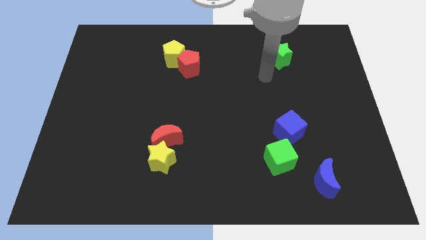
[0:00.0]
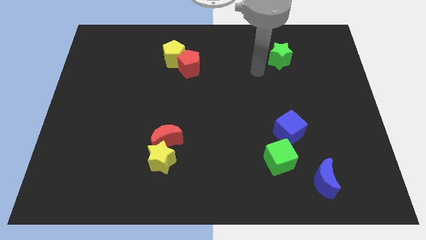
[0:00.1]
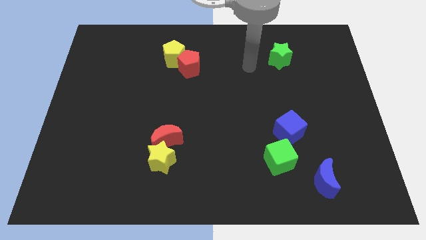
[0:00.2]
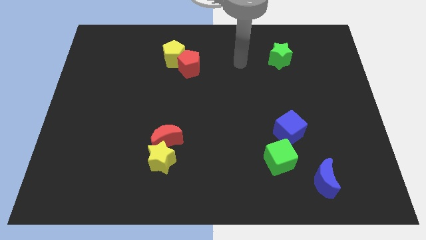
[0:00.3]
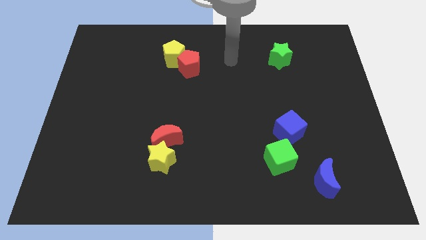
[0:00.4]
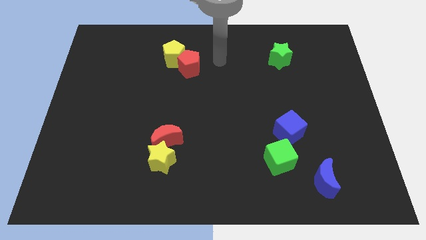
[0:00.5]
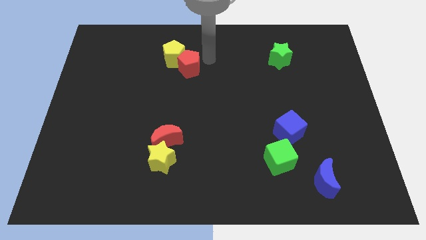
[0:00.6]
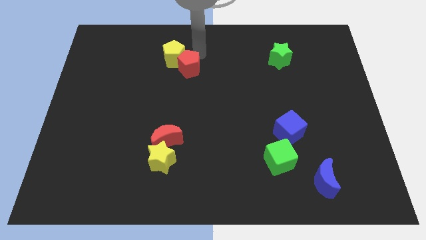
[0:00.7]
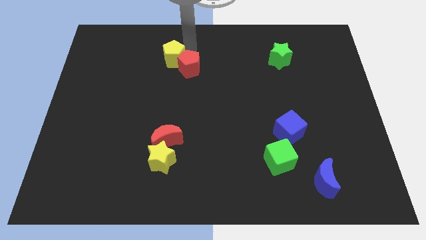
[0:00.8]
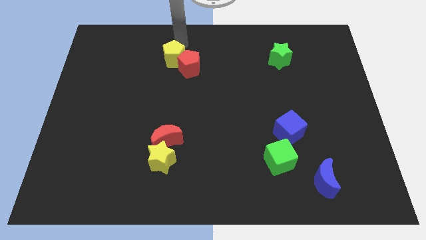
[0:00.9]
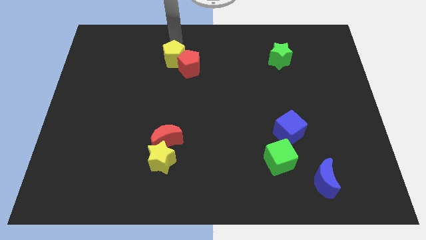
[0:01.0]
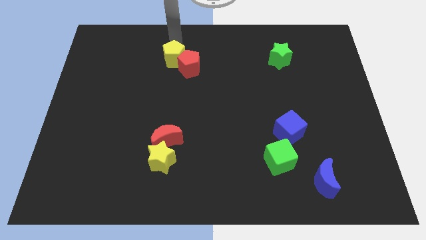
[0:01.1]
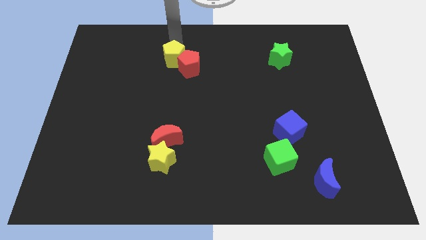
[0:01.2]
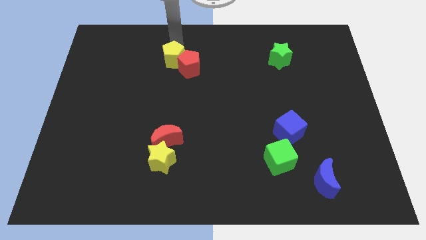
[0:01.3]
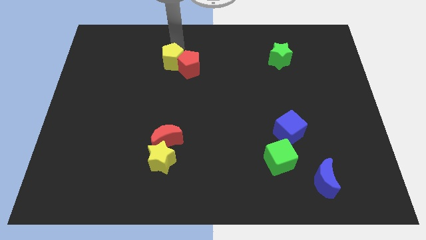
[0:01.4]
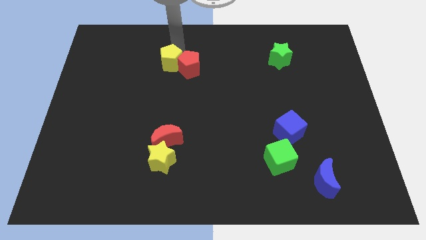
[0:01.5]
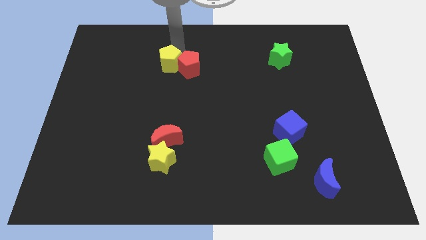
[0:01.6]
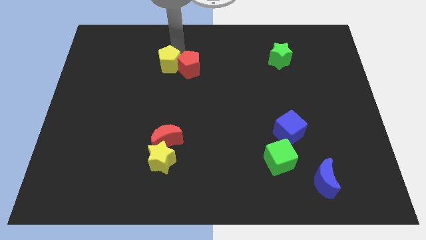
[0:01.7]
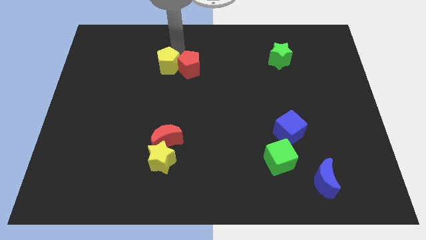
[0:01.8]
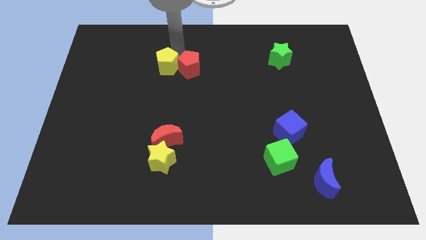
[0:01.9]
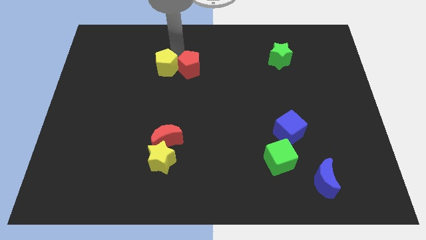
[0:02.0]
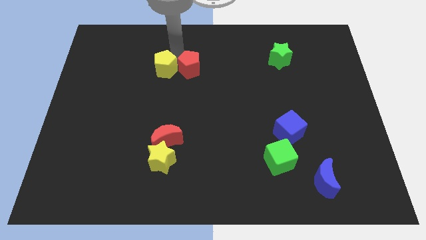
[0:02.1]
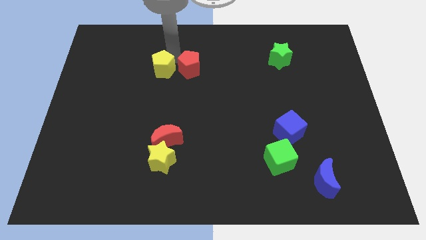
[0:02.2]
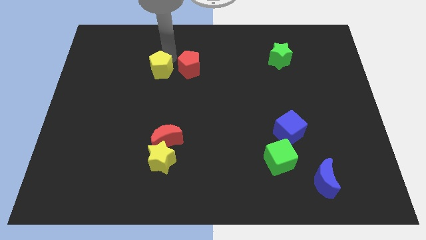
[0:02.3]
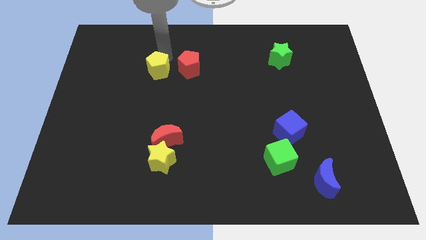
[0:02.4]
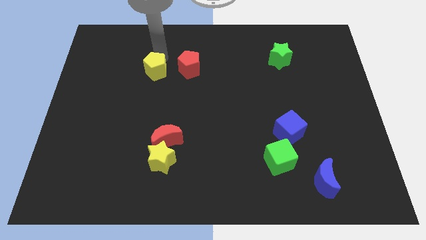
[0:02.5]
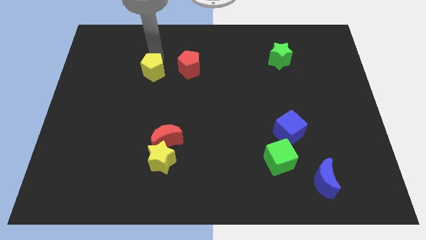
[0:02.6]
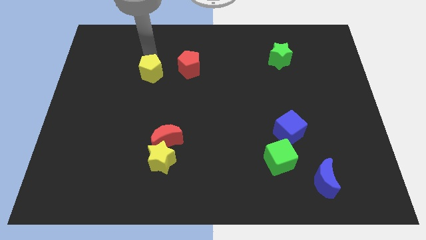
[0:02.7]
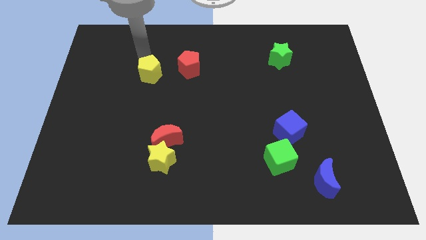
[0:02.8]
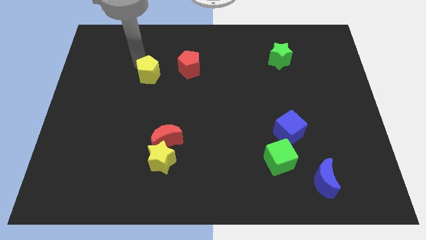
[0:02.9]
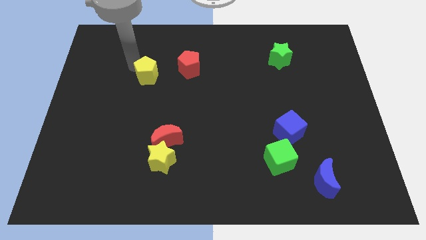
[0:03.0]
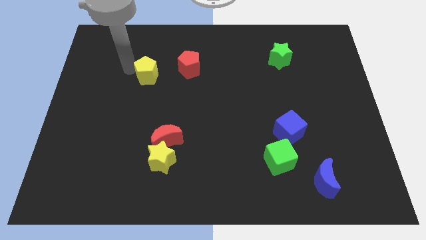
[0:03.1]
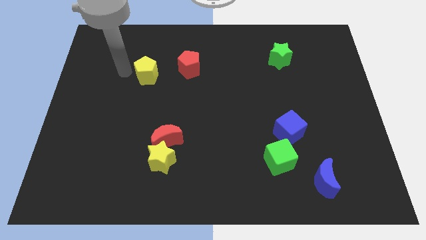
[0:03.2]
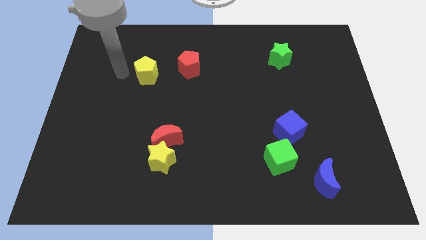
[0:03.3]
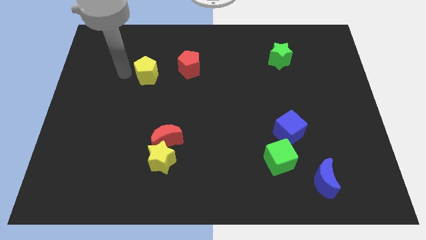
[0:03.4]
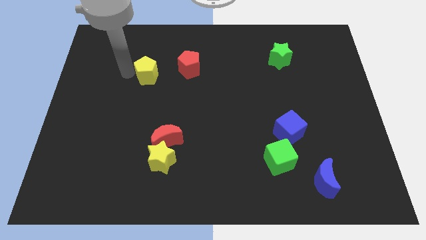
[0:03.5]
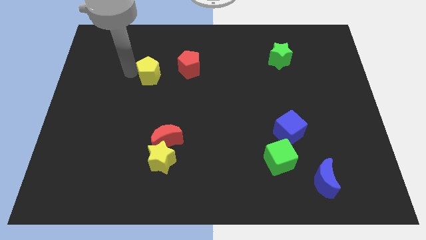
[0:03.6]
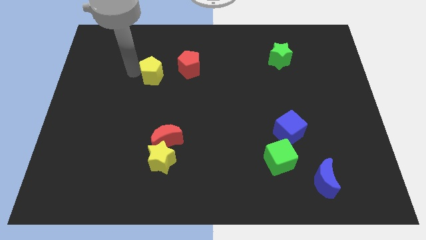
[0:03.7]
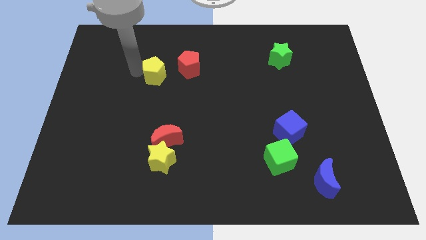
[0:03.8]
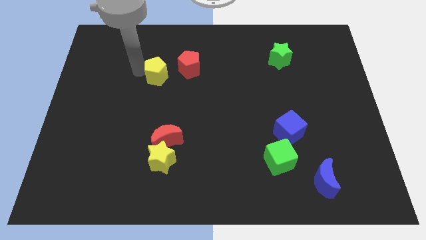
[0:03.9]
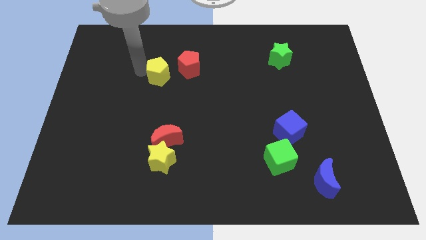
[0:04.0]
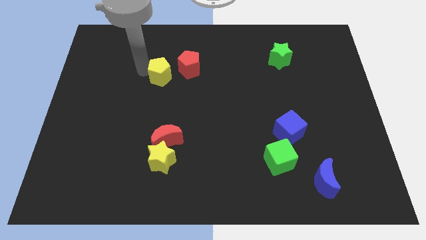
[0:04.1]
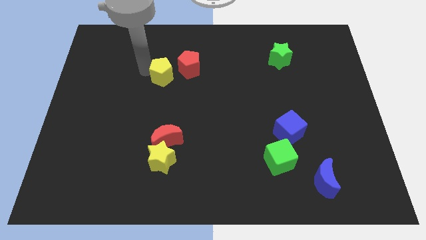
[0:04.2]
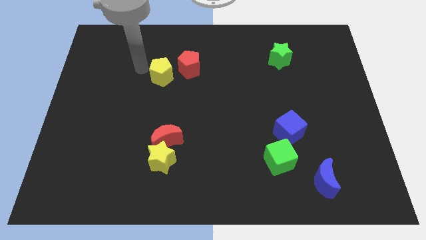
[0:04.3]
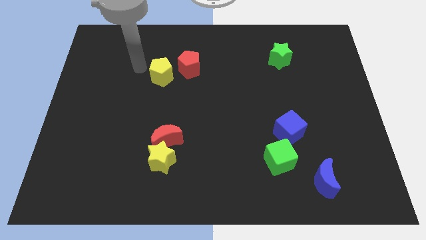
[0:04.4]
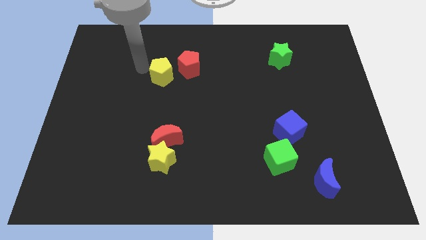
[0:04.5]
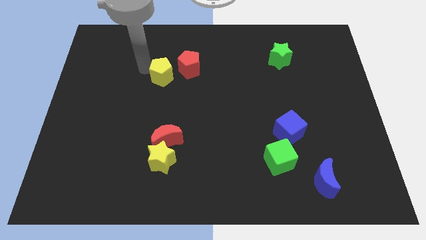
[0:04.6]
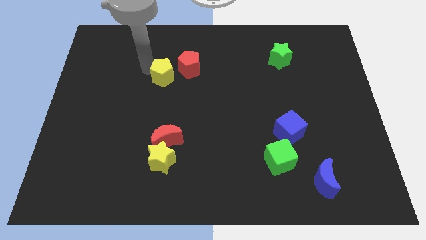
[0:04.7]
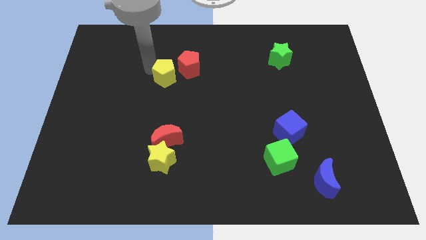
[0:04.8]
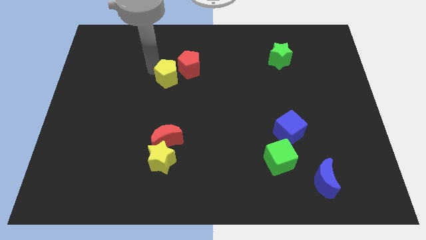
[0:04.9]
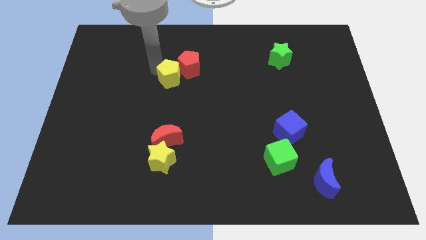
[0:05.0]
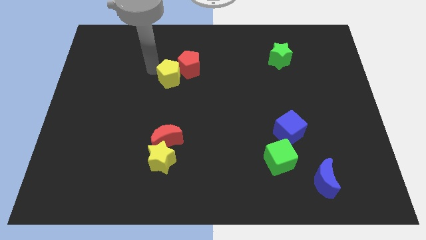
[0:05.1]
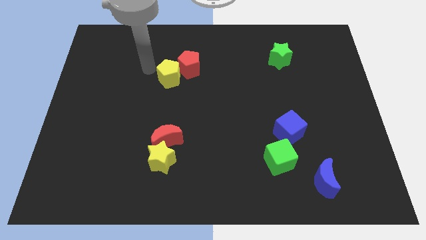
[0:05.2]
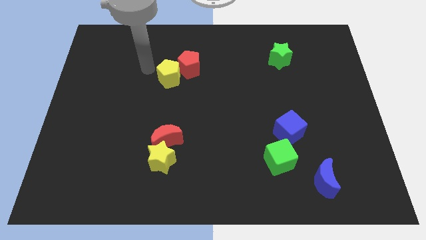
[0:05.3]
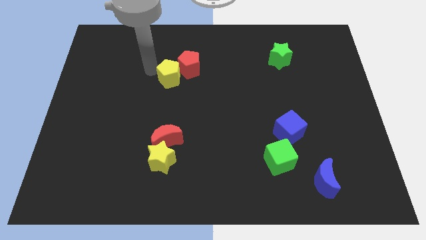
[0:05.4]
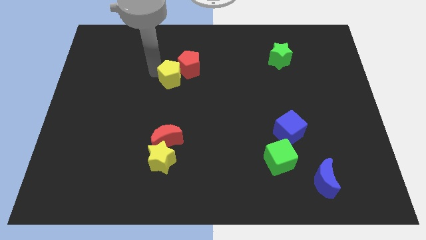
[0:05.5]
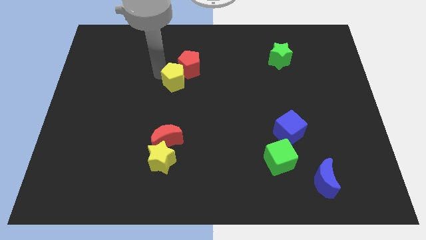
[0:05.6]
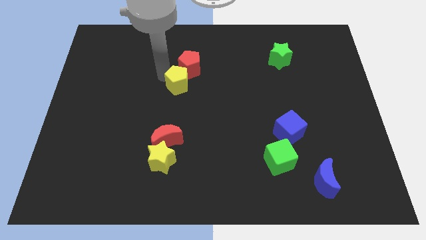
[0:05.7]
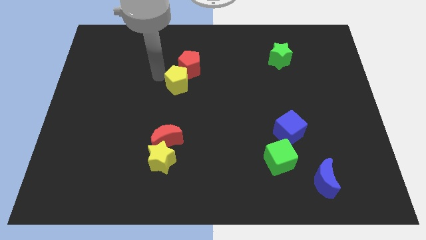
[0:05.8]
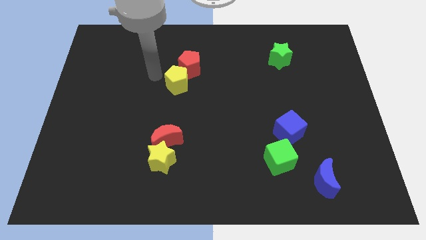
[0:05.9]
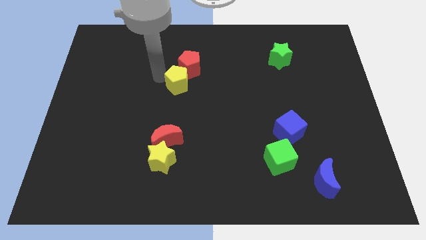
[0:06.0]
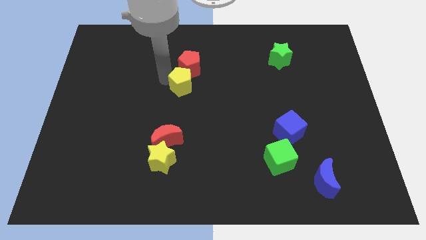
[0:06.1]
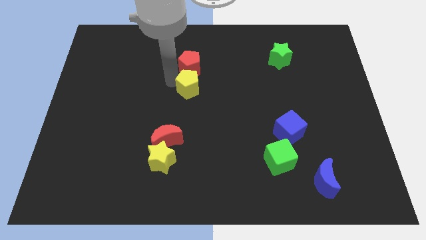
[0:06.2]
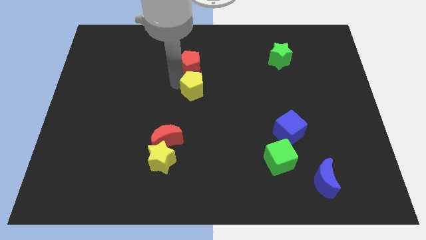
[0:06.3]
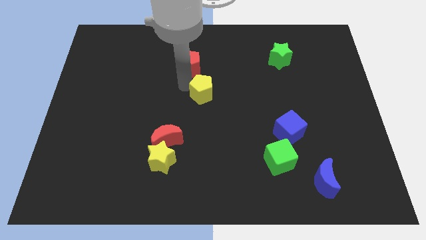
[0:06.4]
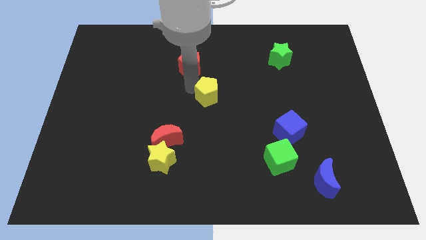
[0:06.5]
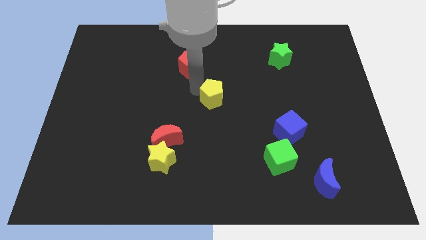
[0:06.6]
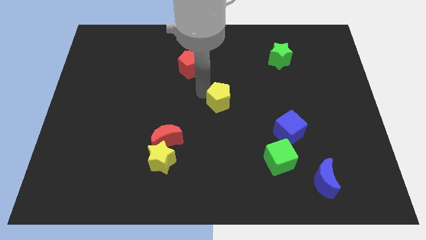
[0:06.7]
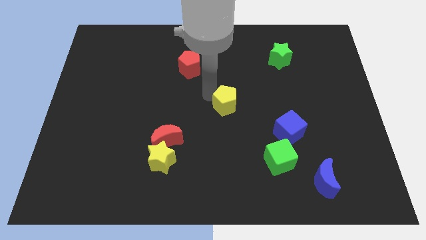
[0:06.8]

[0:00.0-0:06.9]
move the yellow pentagon down and then to the right

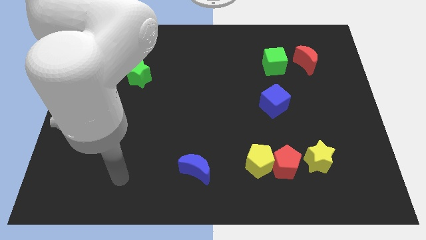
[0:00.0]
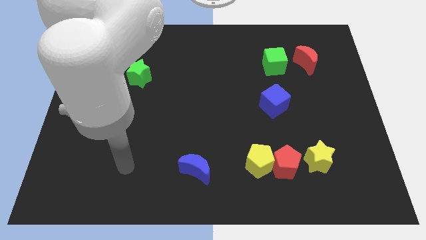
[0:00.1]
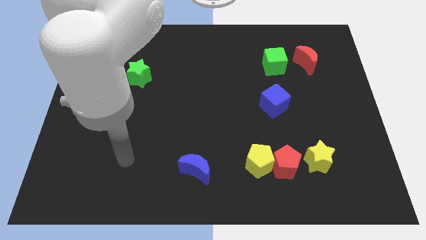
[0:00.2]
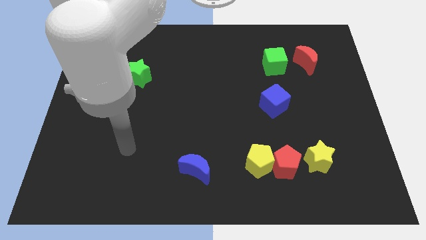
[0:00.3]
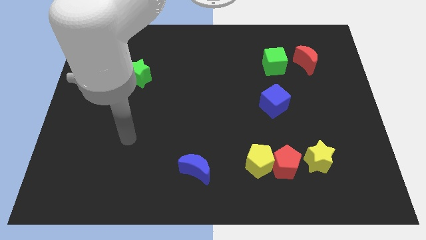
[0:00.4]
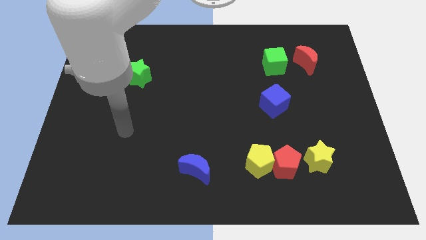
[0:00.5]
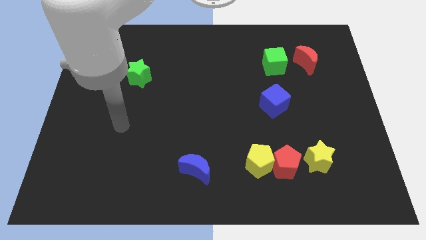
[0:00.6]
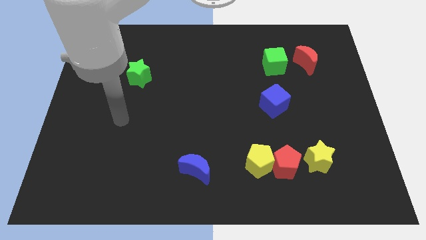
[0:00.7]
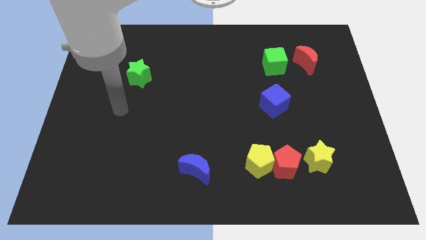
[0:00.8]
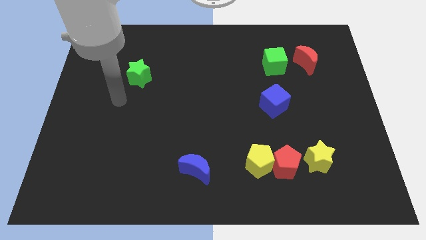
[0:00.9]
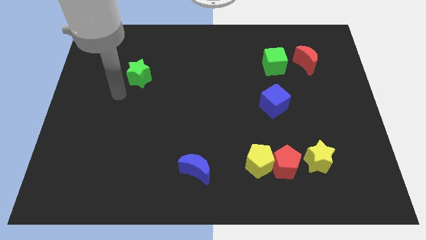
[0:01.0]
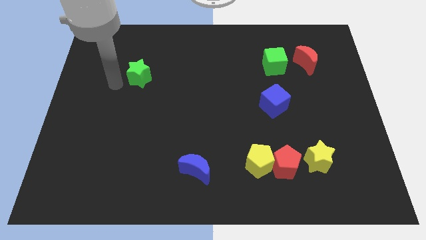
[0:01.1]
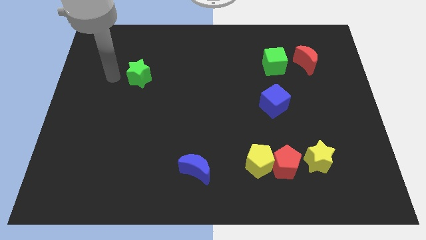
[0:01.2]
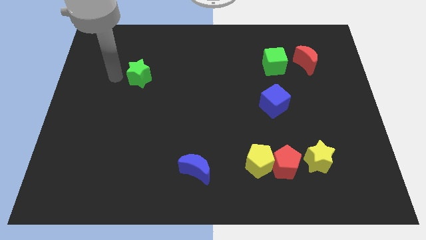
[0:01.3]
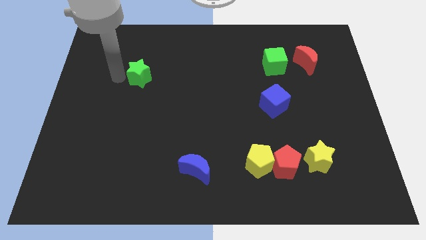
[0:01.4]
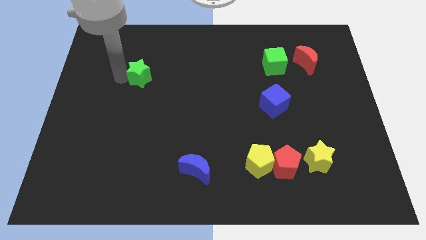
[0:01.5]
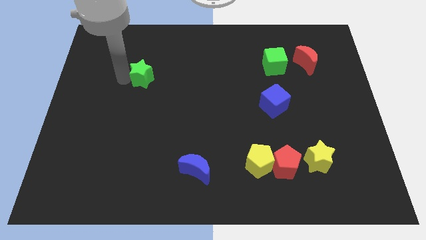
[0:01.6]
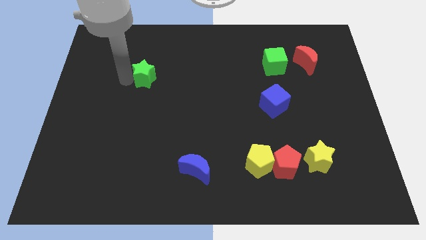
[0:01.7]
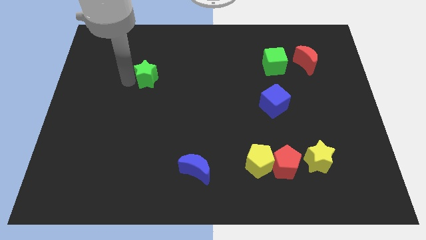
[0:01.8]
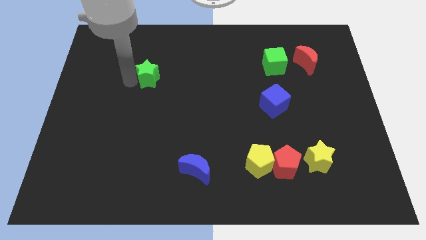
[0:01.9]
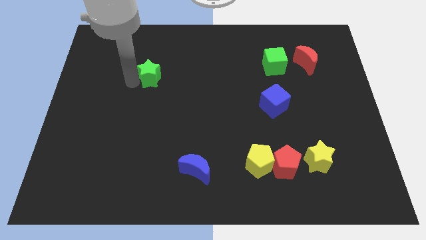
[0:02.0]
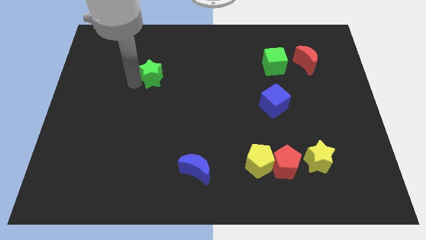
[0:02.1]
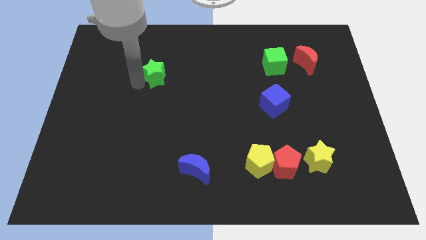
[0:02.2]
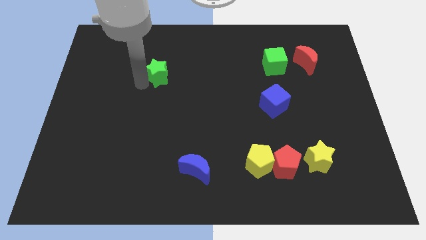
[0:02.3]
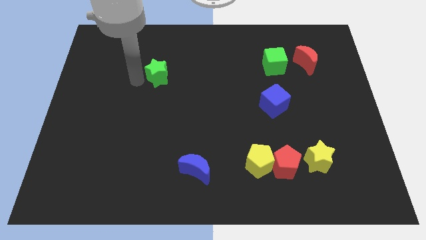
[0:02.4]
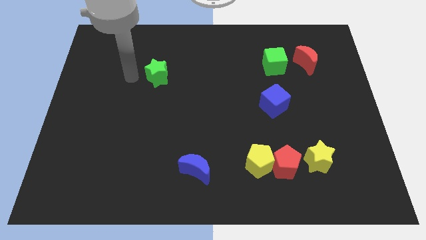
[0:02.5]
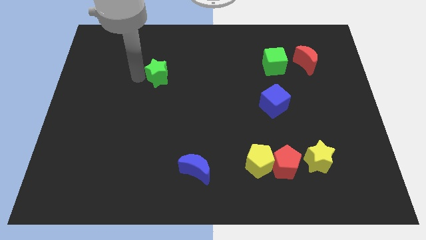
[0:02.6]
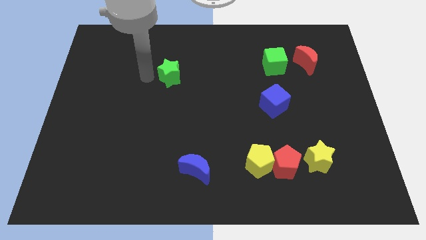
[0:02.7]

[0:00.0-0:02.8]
push the green star slightly right
